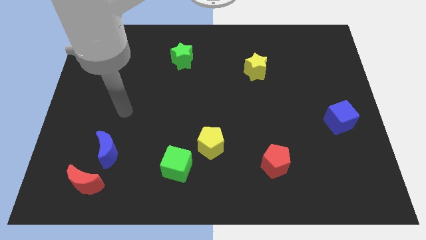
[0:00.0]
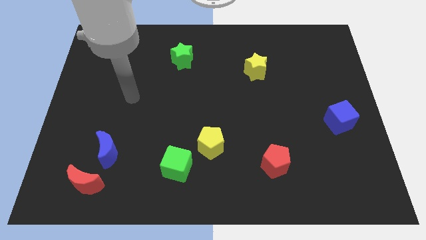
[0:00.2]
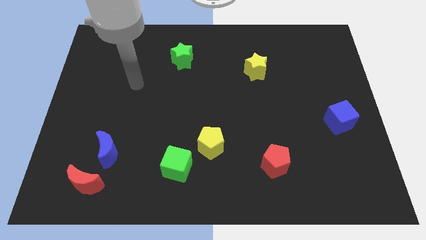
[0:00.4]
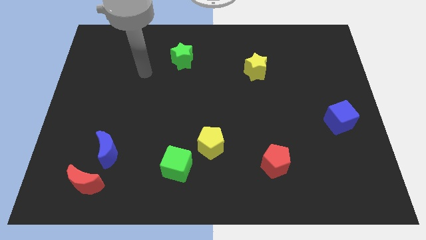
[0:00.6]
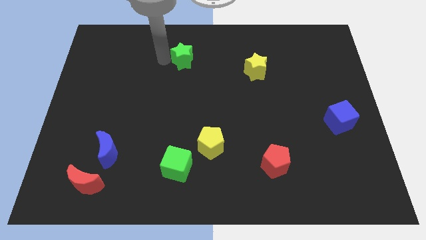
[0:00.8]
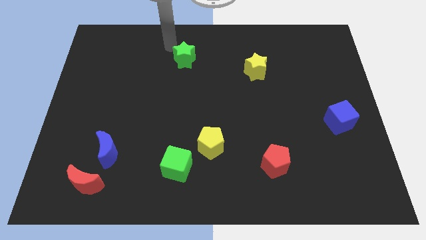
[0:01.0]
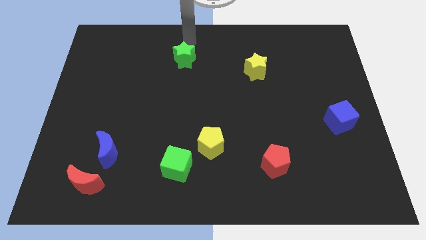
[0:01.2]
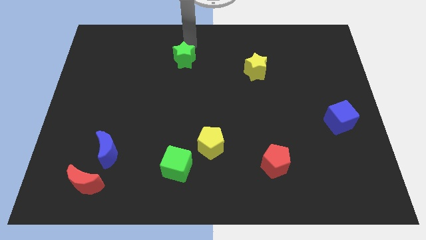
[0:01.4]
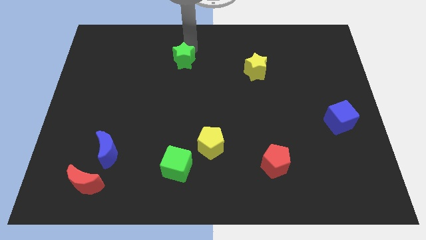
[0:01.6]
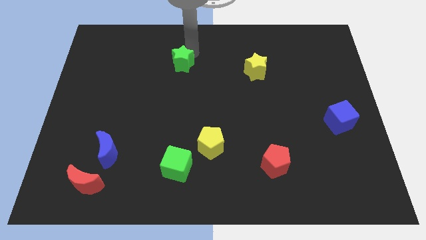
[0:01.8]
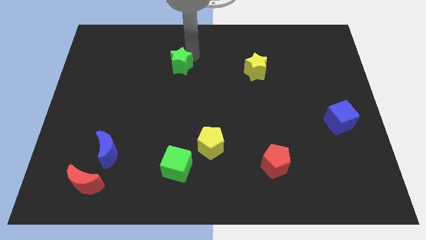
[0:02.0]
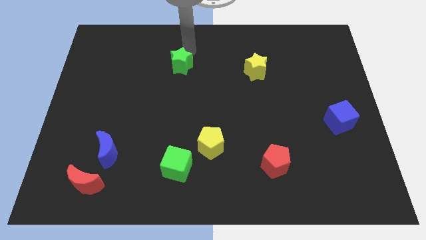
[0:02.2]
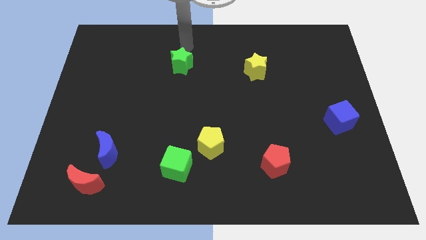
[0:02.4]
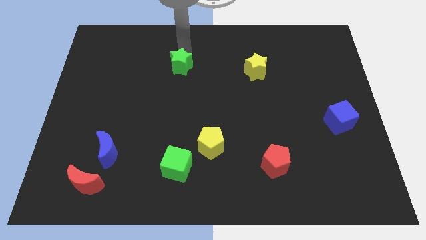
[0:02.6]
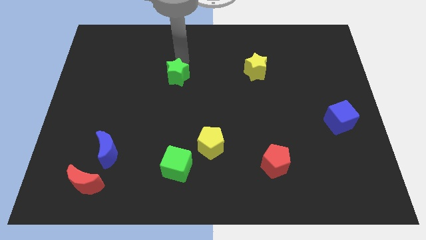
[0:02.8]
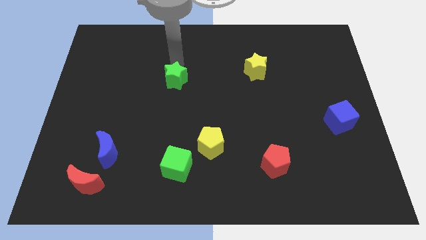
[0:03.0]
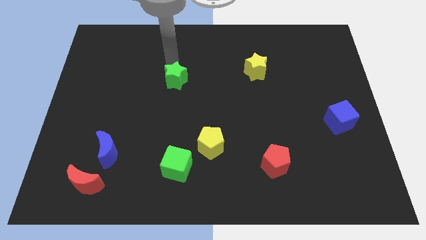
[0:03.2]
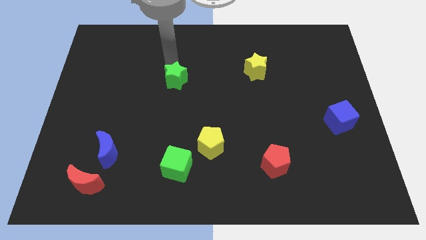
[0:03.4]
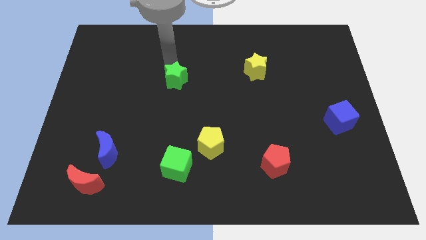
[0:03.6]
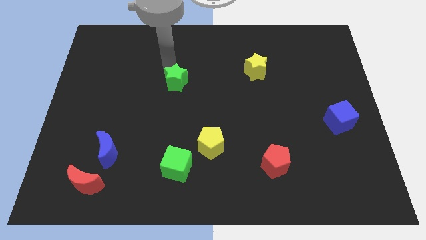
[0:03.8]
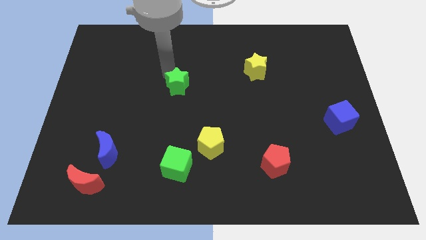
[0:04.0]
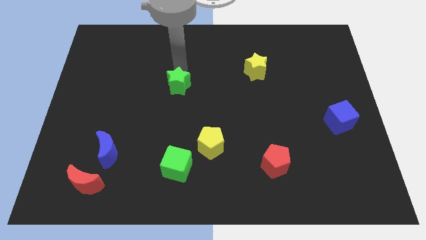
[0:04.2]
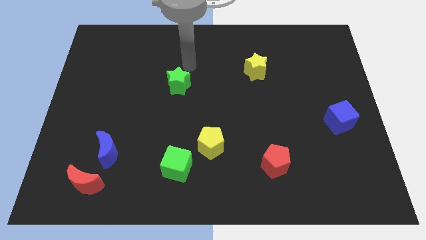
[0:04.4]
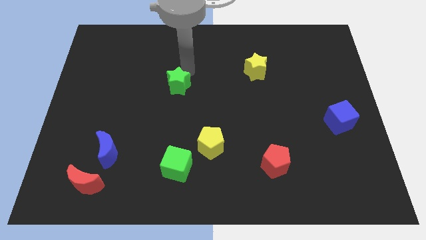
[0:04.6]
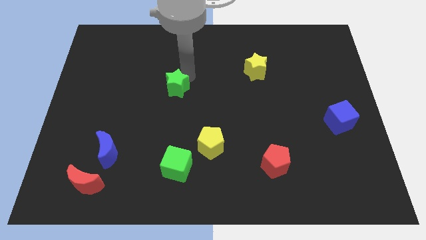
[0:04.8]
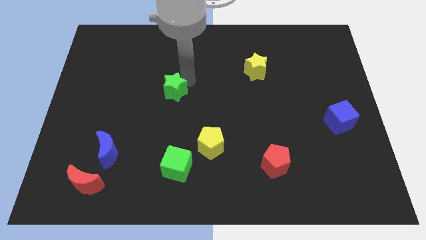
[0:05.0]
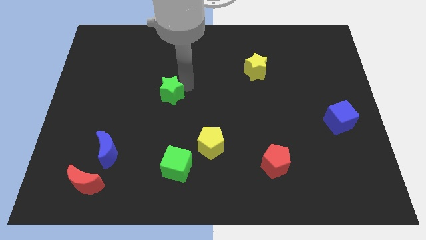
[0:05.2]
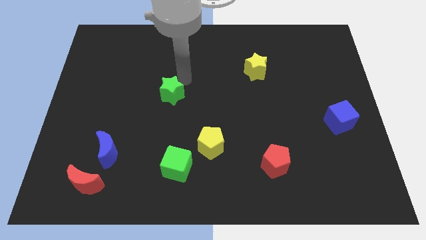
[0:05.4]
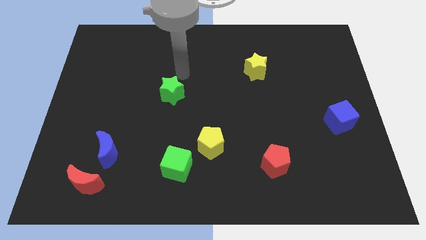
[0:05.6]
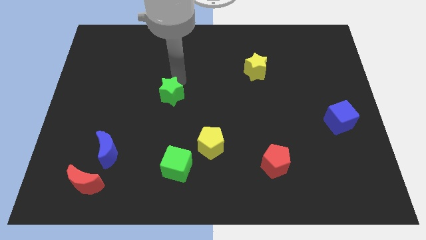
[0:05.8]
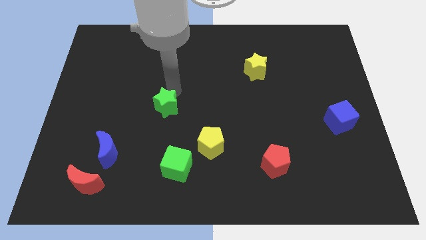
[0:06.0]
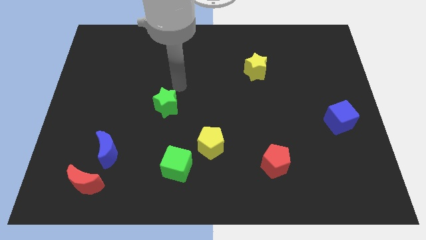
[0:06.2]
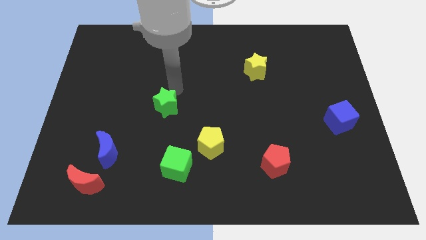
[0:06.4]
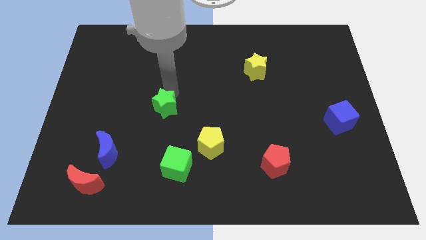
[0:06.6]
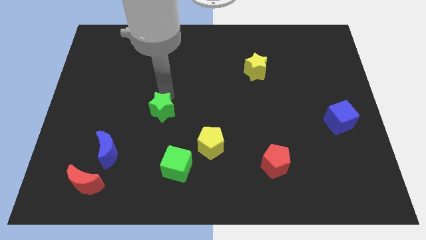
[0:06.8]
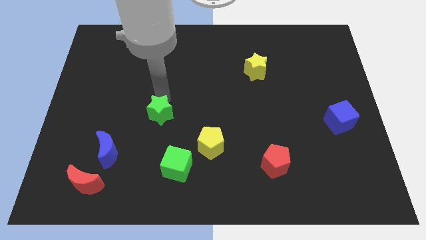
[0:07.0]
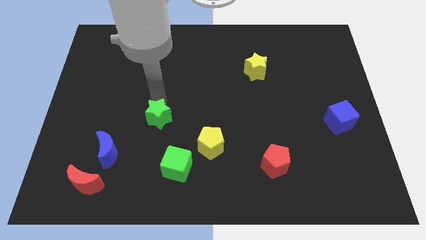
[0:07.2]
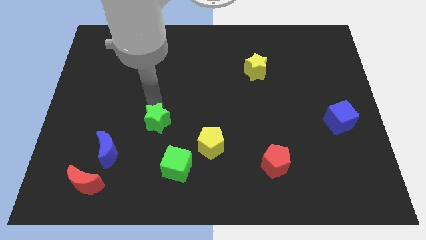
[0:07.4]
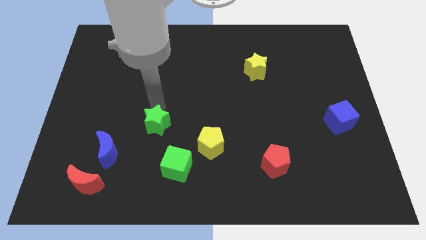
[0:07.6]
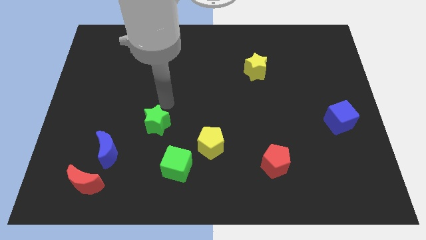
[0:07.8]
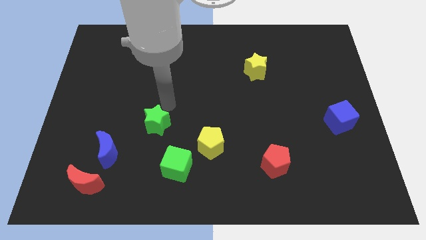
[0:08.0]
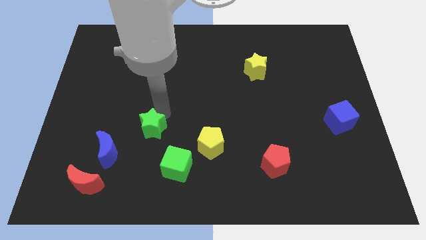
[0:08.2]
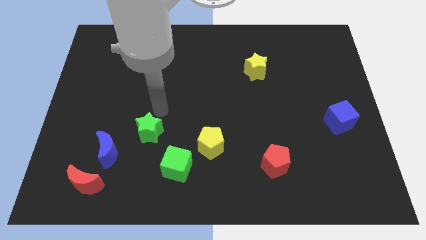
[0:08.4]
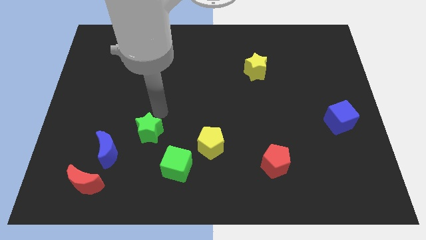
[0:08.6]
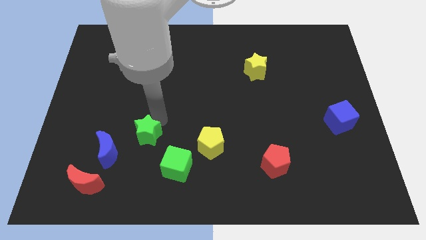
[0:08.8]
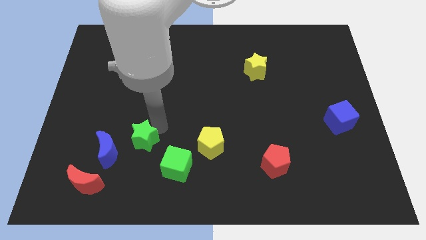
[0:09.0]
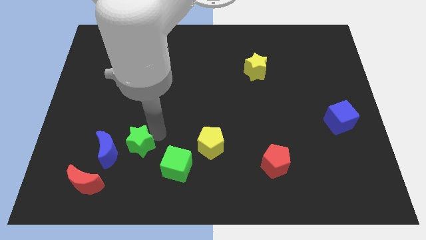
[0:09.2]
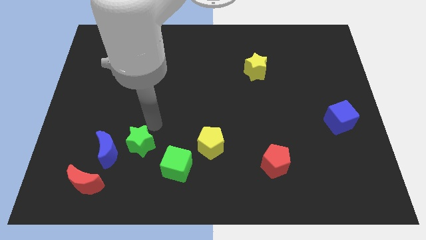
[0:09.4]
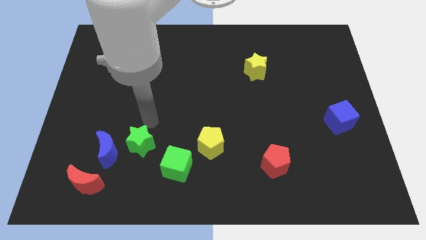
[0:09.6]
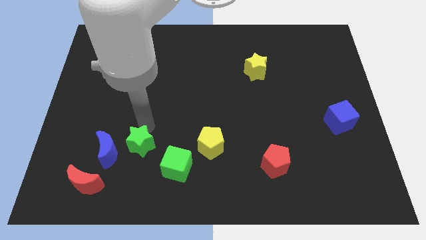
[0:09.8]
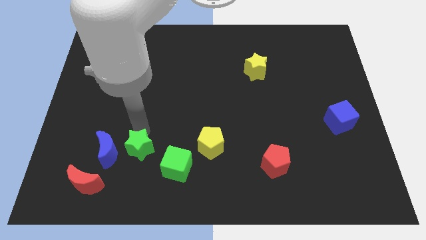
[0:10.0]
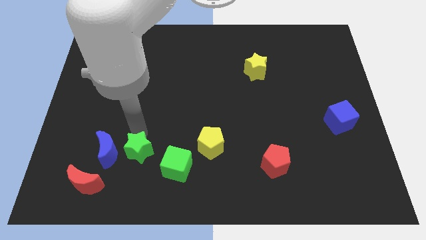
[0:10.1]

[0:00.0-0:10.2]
slide the green star diagonally down and to the right of the blue moon

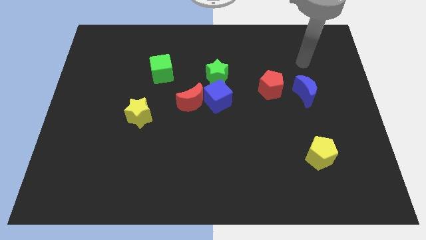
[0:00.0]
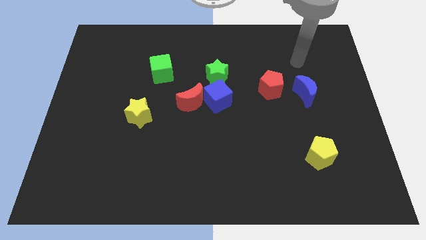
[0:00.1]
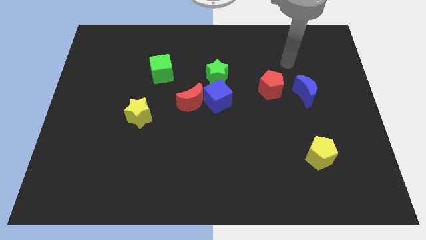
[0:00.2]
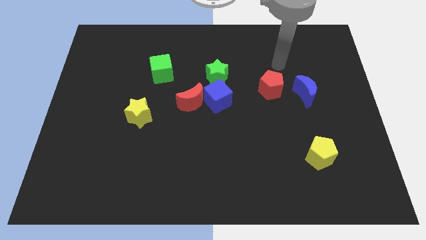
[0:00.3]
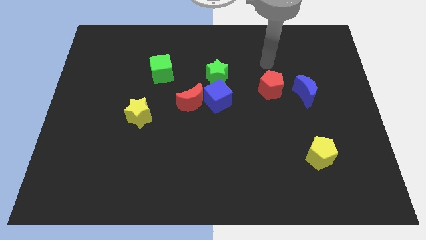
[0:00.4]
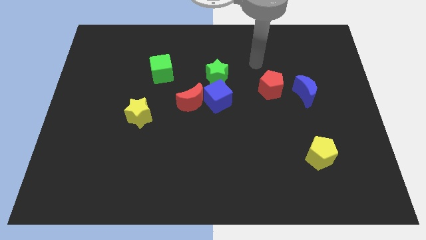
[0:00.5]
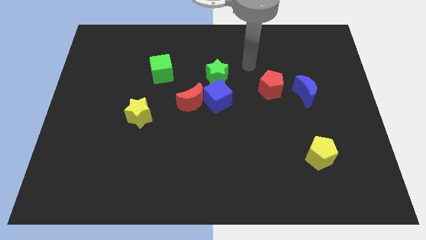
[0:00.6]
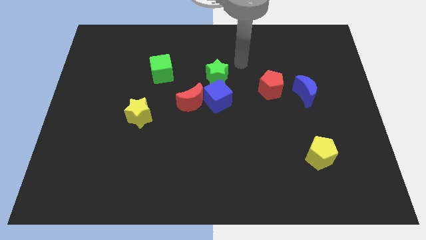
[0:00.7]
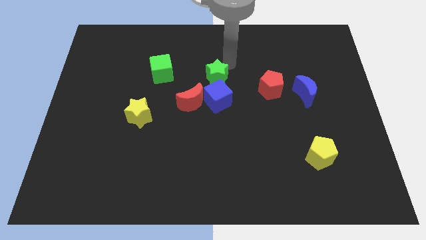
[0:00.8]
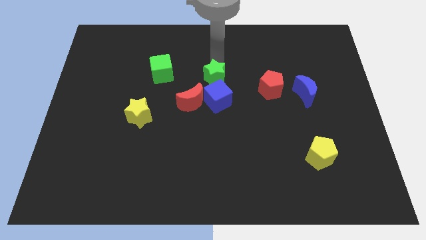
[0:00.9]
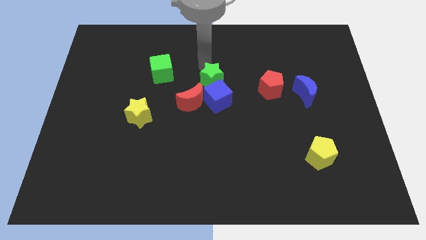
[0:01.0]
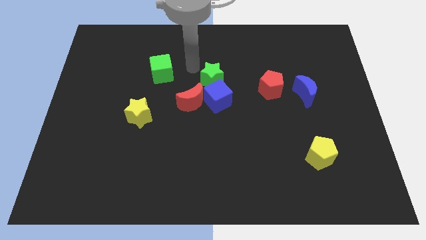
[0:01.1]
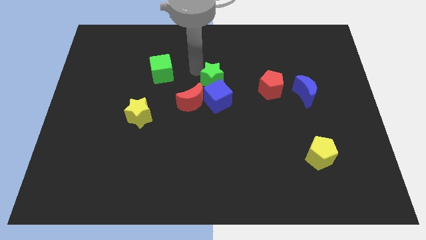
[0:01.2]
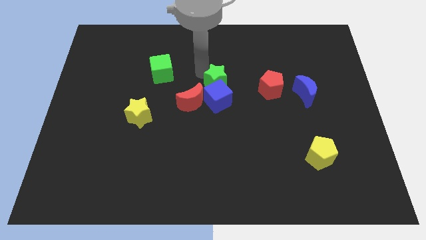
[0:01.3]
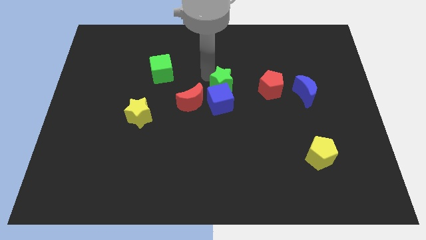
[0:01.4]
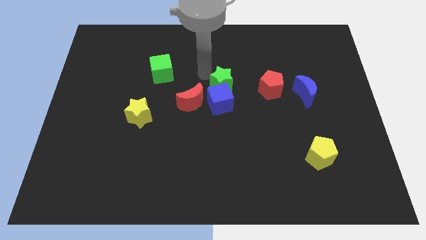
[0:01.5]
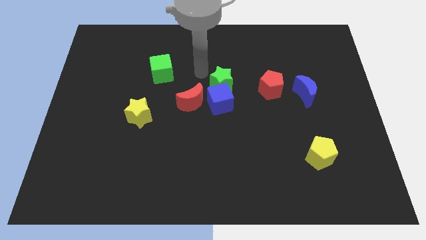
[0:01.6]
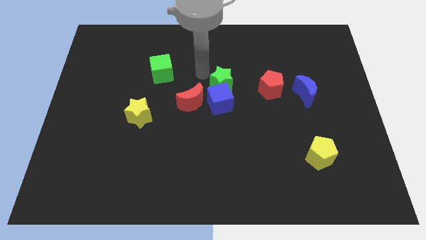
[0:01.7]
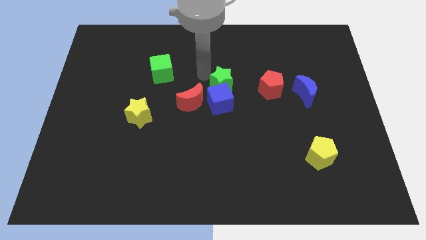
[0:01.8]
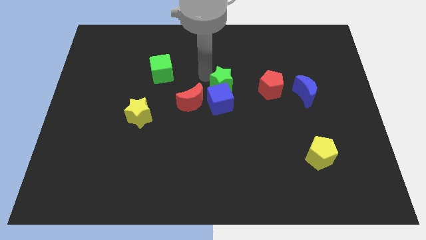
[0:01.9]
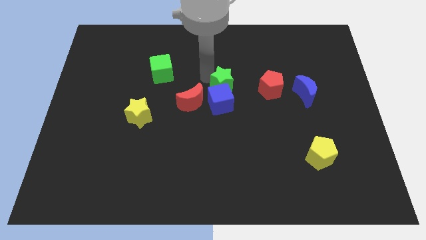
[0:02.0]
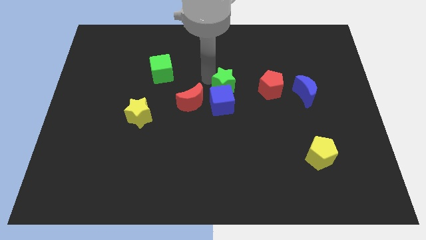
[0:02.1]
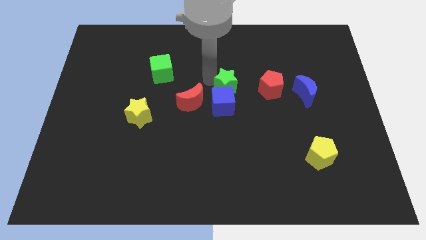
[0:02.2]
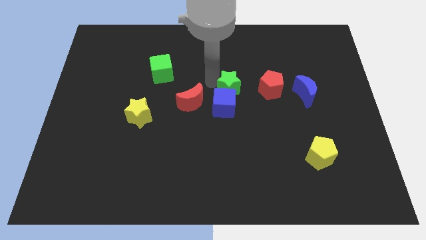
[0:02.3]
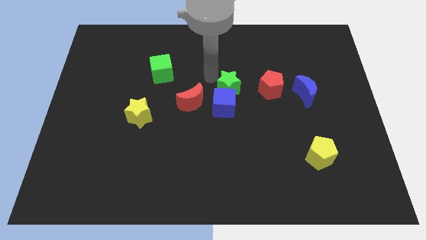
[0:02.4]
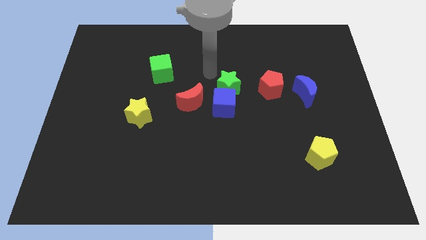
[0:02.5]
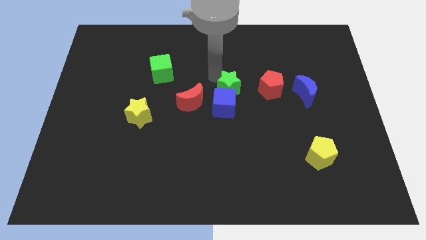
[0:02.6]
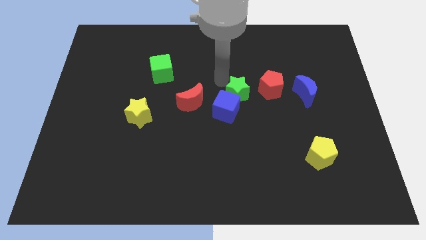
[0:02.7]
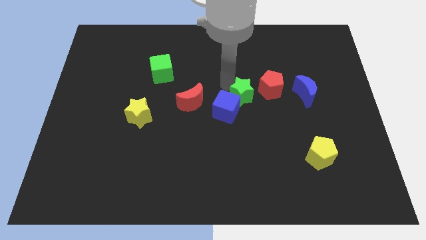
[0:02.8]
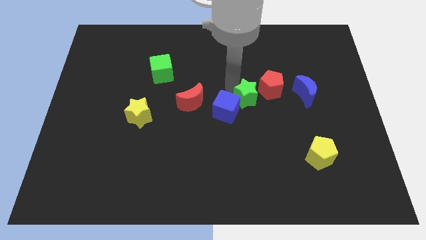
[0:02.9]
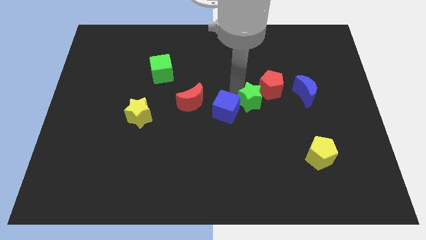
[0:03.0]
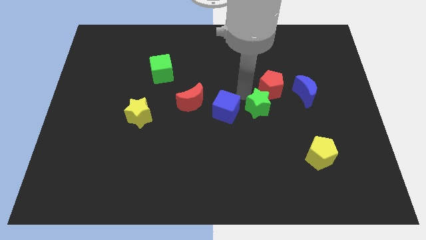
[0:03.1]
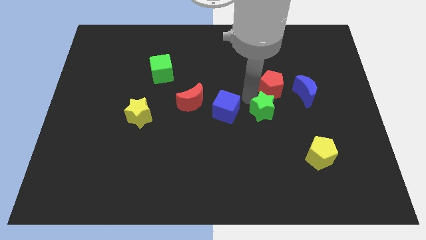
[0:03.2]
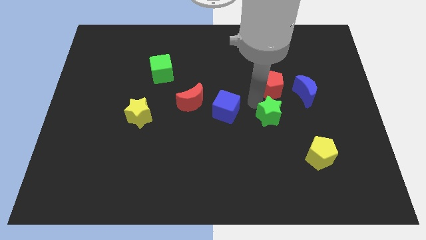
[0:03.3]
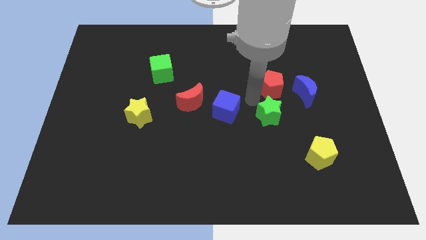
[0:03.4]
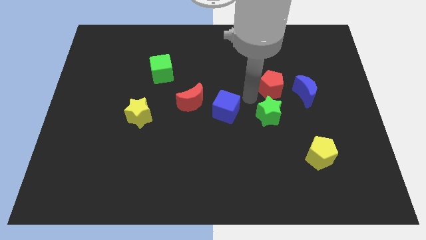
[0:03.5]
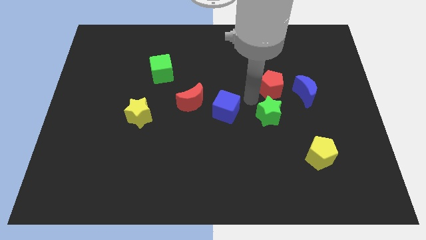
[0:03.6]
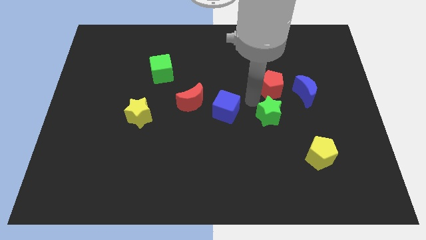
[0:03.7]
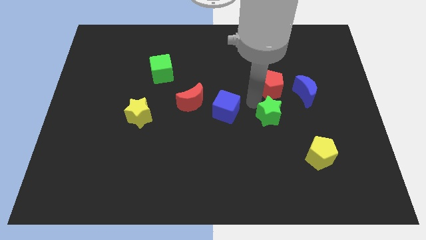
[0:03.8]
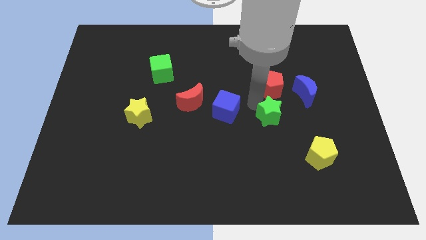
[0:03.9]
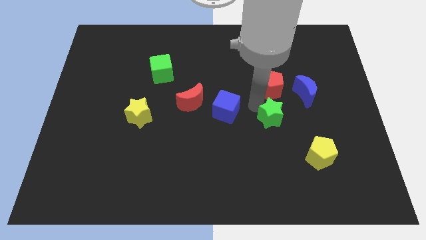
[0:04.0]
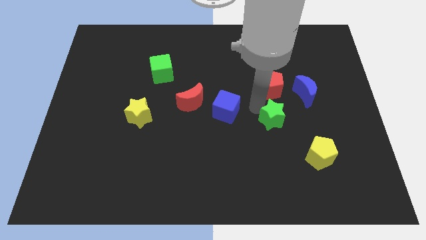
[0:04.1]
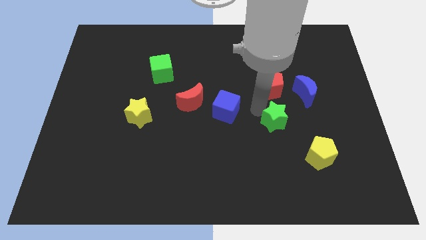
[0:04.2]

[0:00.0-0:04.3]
slide the green star to the top left of the yellow pentagon
